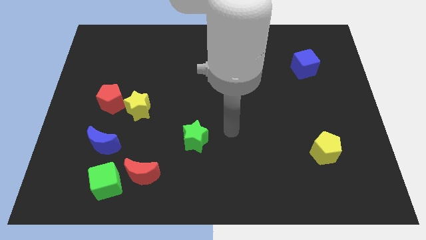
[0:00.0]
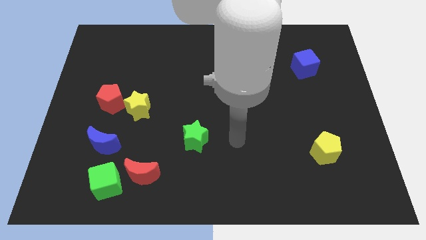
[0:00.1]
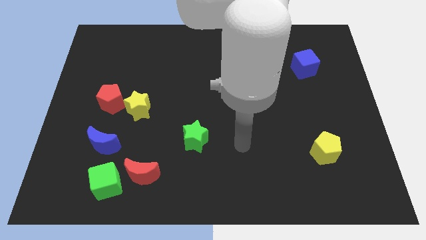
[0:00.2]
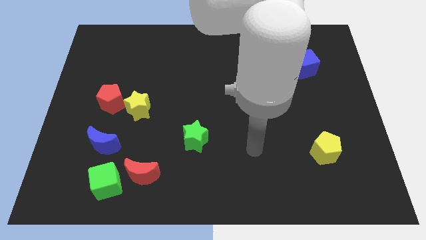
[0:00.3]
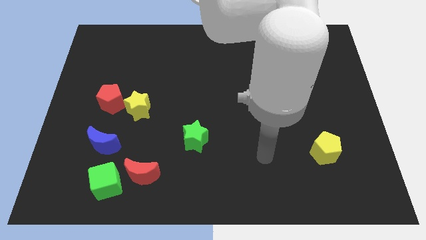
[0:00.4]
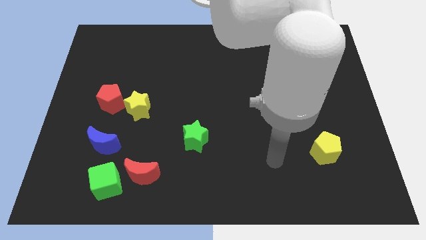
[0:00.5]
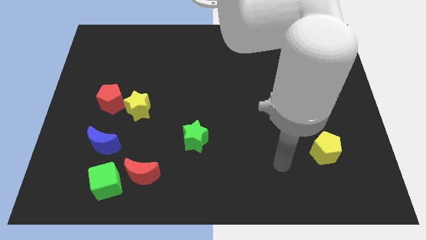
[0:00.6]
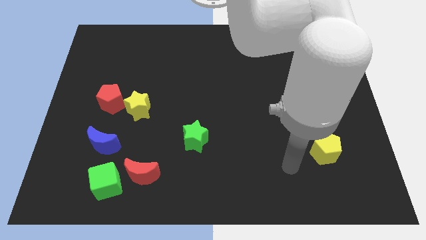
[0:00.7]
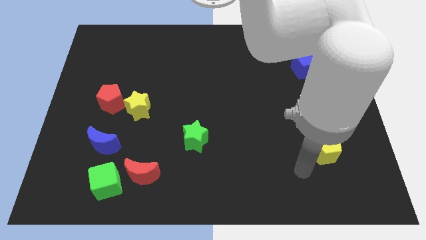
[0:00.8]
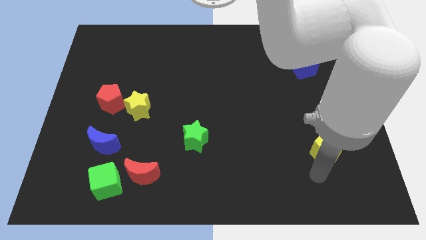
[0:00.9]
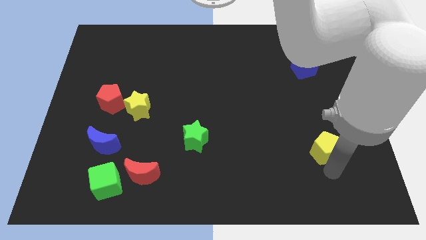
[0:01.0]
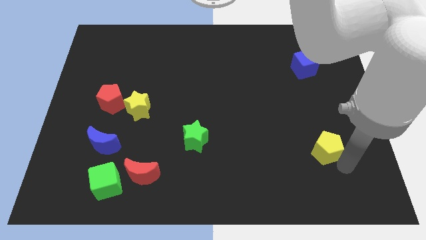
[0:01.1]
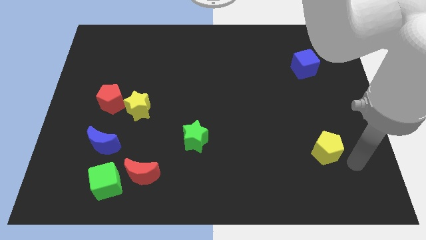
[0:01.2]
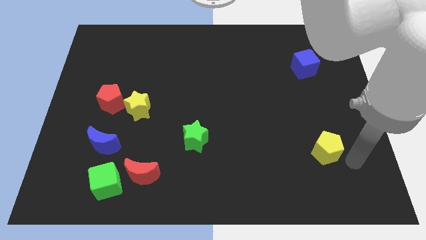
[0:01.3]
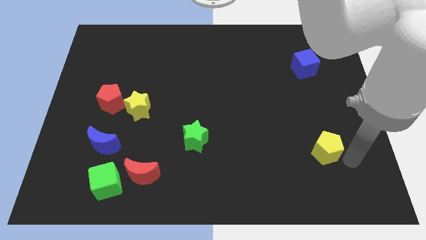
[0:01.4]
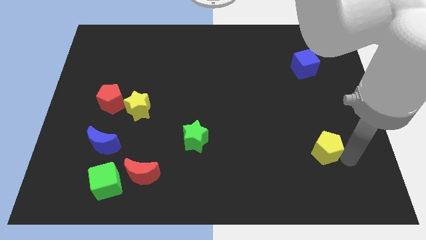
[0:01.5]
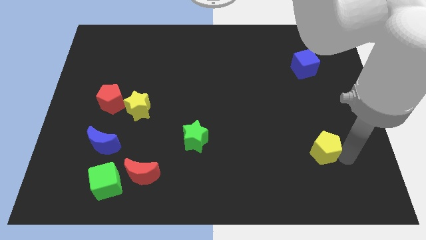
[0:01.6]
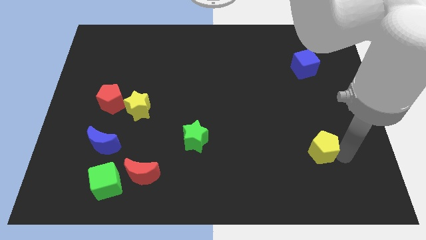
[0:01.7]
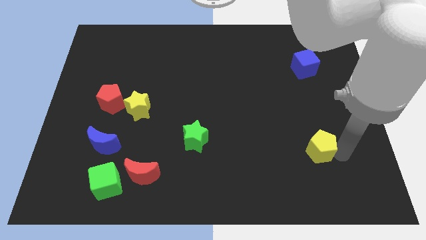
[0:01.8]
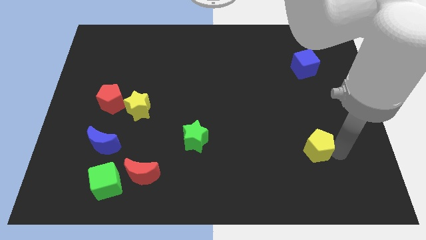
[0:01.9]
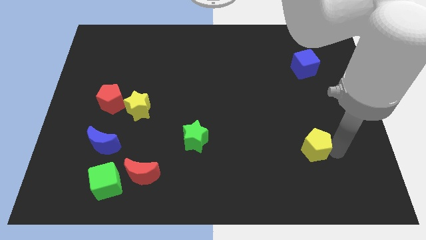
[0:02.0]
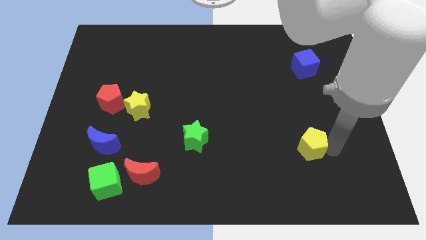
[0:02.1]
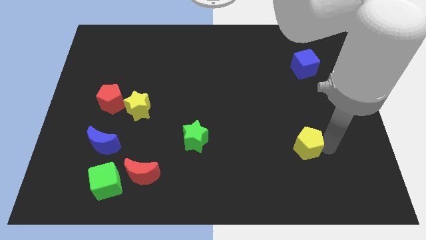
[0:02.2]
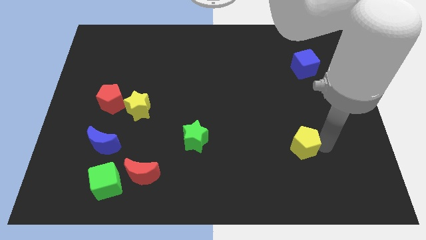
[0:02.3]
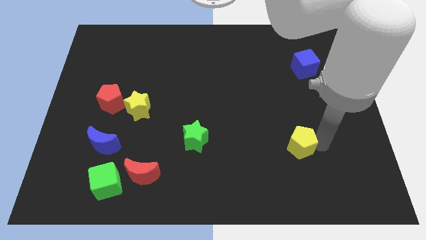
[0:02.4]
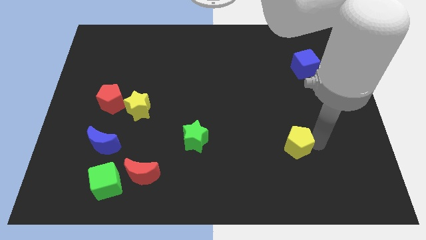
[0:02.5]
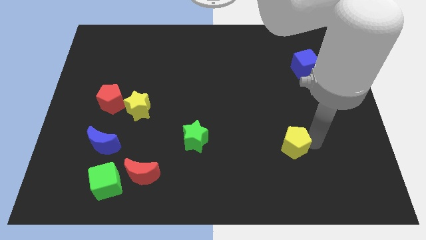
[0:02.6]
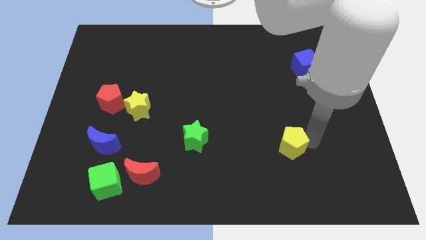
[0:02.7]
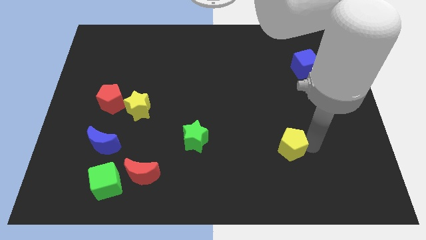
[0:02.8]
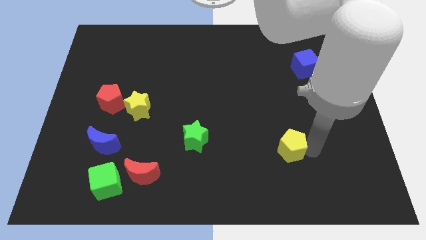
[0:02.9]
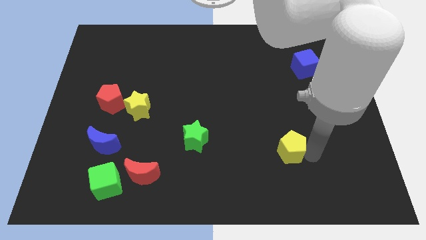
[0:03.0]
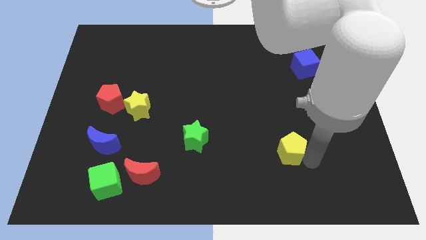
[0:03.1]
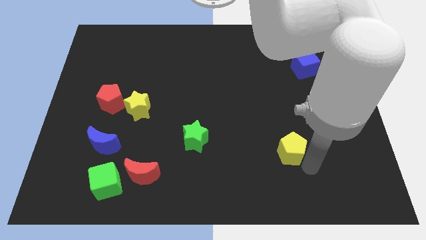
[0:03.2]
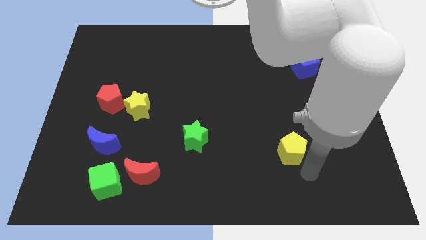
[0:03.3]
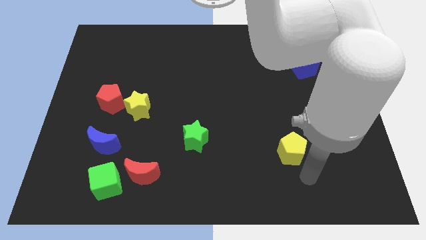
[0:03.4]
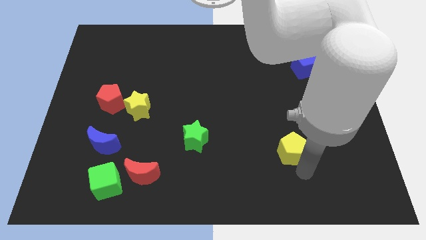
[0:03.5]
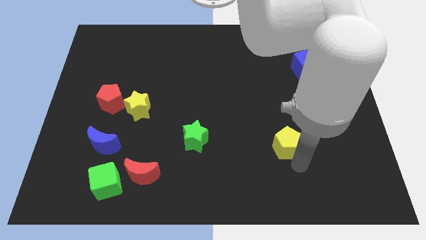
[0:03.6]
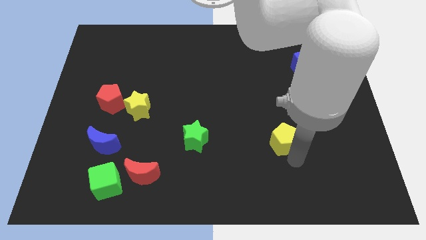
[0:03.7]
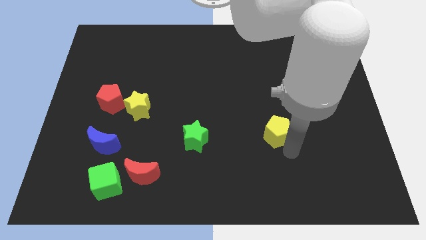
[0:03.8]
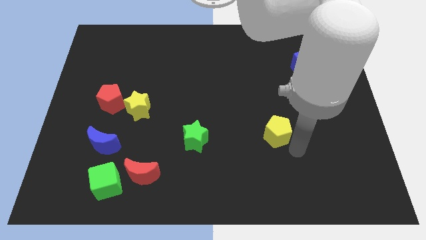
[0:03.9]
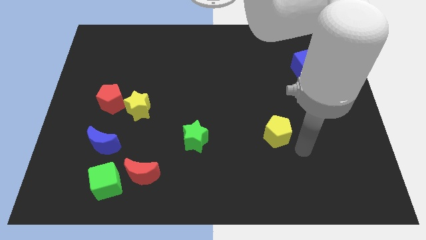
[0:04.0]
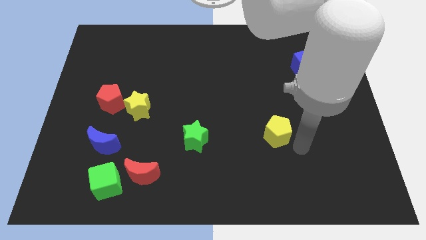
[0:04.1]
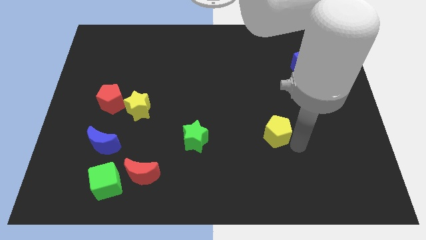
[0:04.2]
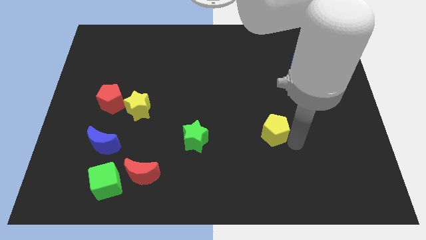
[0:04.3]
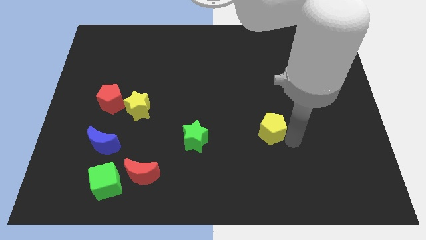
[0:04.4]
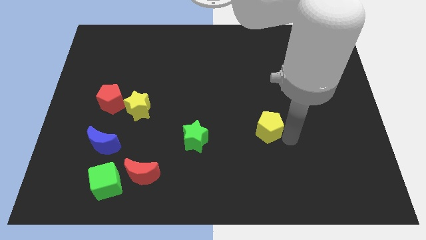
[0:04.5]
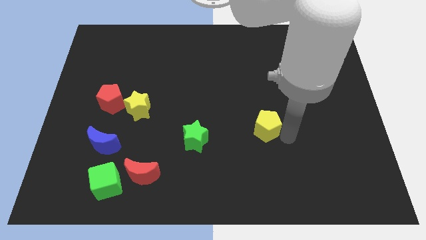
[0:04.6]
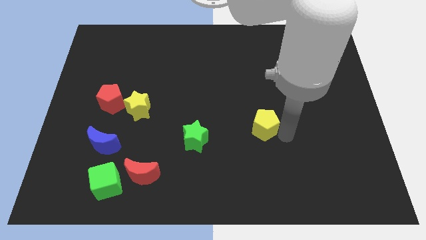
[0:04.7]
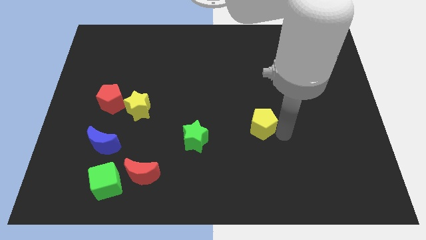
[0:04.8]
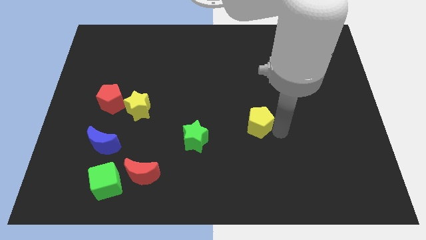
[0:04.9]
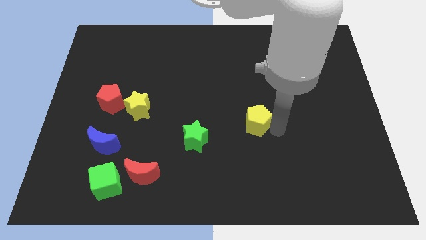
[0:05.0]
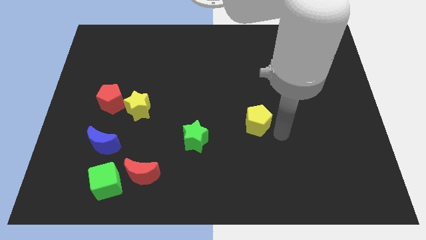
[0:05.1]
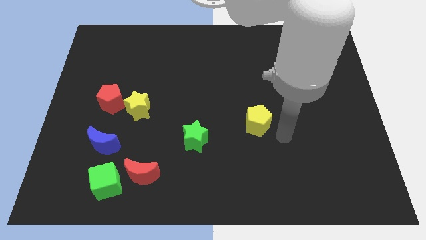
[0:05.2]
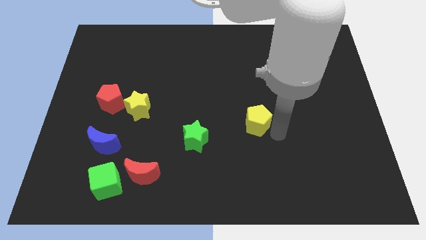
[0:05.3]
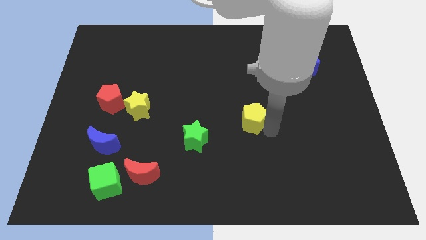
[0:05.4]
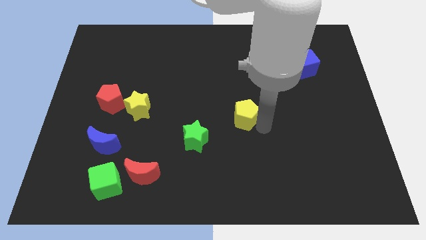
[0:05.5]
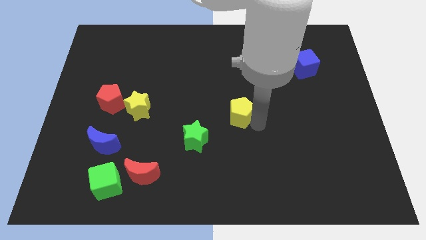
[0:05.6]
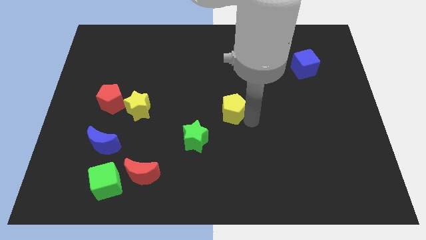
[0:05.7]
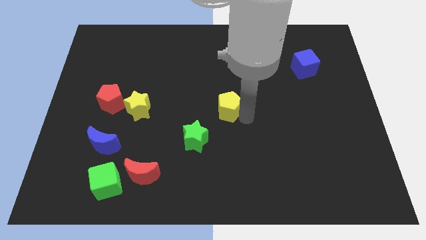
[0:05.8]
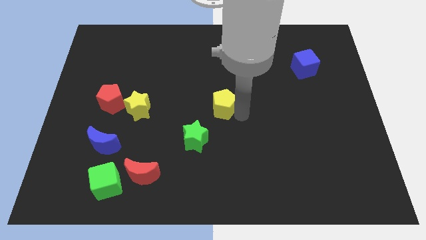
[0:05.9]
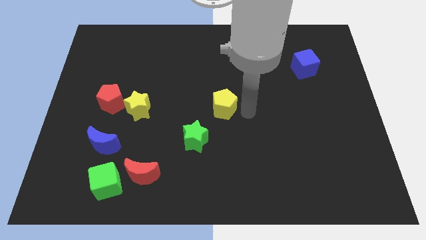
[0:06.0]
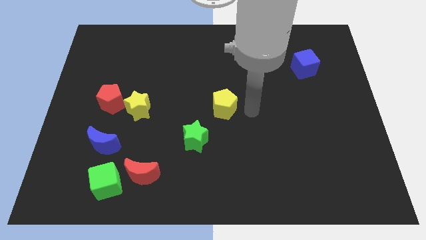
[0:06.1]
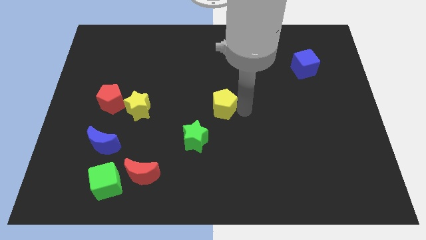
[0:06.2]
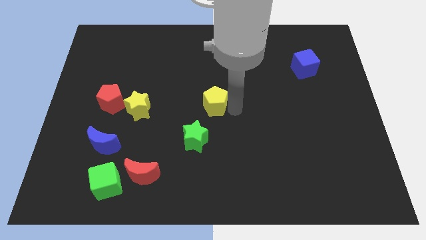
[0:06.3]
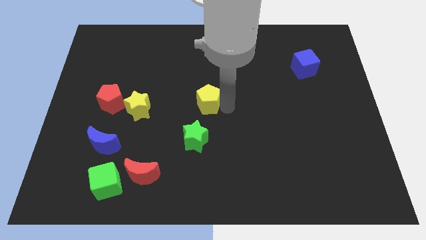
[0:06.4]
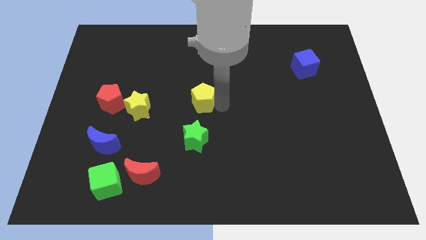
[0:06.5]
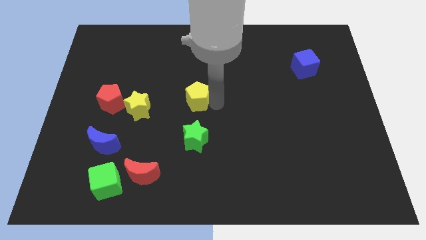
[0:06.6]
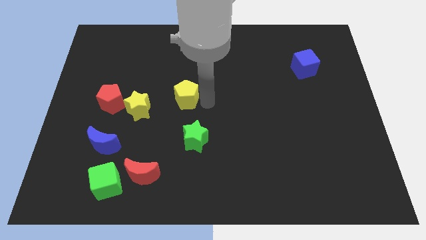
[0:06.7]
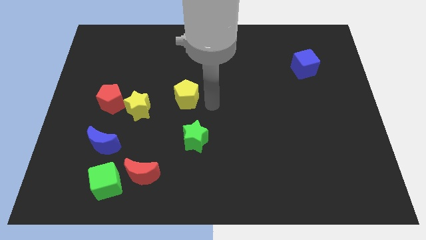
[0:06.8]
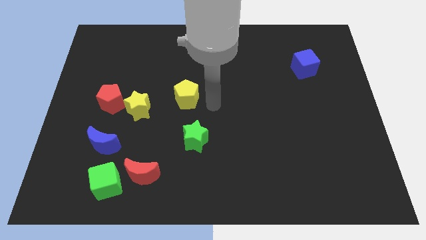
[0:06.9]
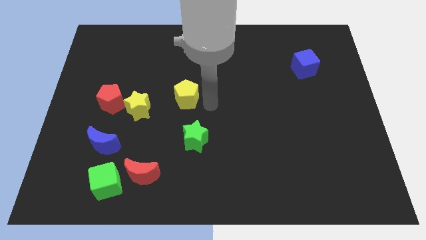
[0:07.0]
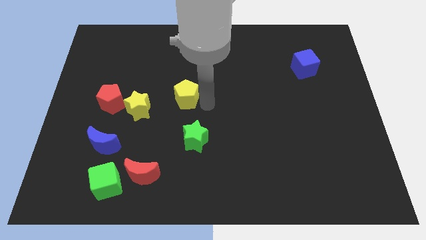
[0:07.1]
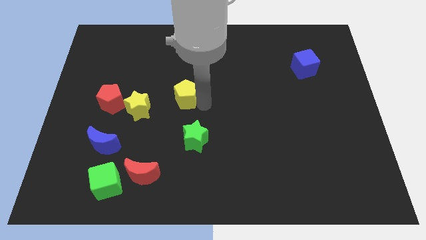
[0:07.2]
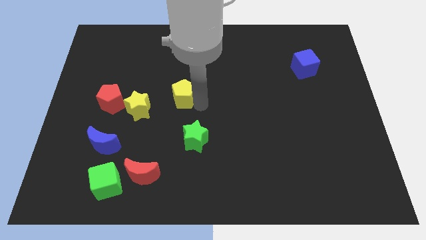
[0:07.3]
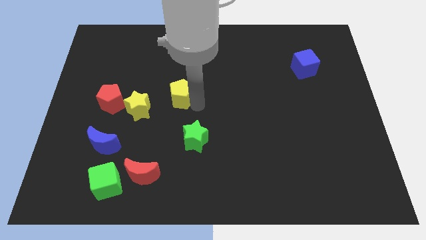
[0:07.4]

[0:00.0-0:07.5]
push the yellow pentagon to the top right of the yellow star
